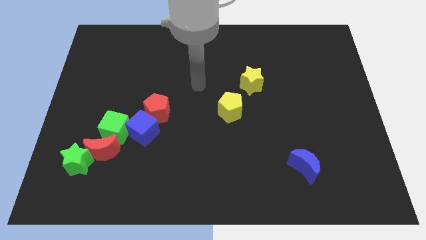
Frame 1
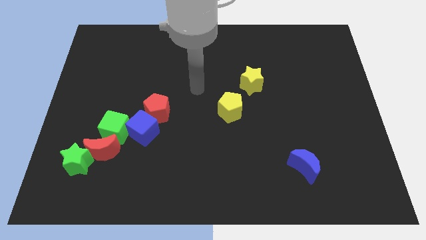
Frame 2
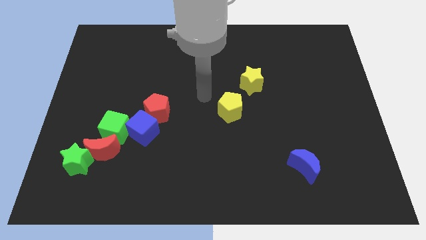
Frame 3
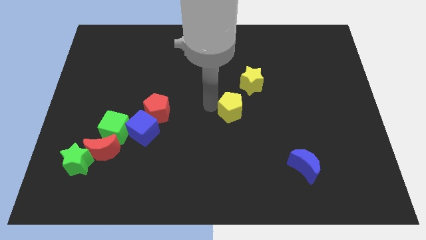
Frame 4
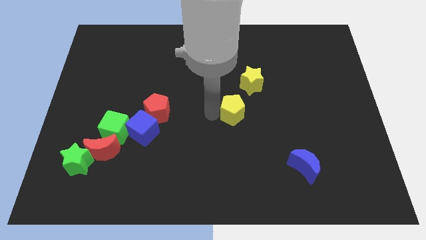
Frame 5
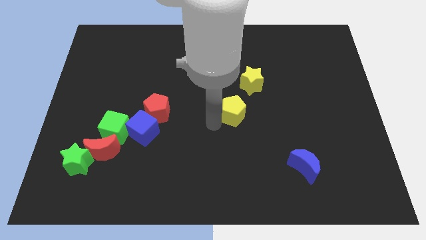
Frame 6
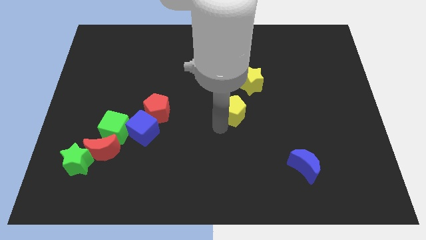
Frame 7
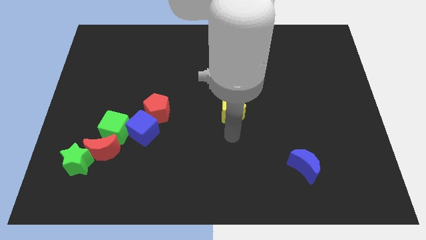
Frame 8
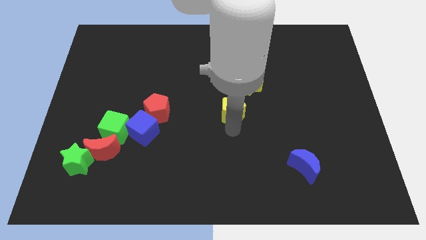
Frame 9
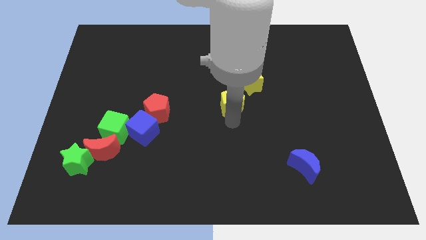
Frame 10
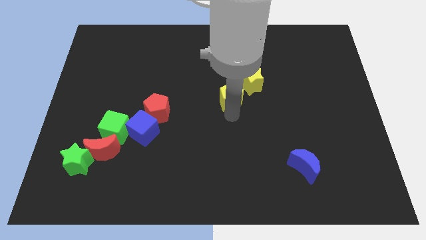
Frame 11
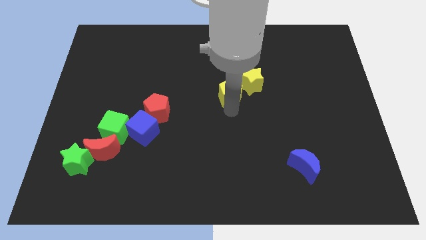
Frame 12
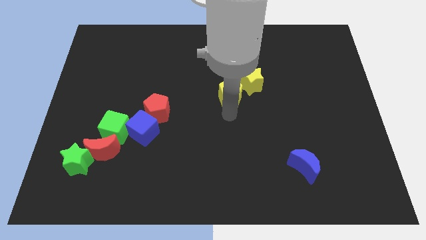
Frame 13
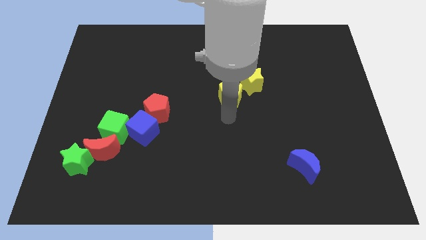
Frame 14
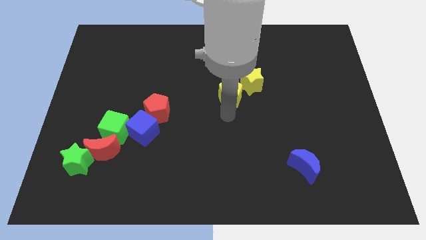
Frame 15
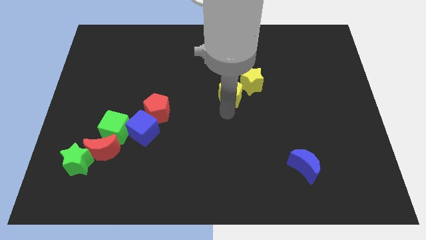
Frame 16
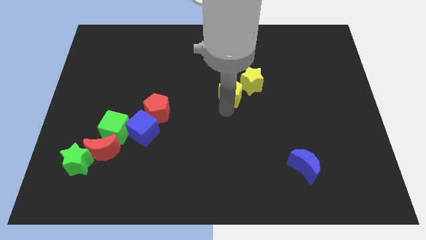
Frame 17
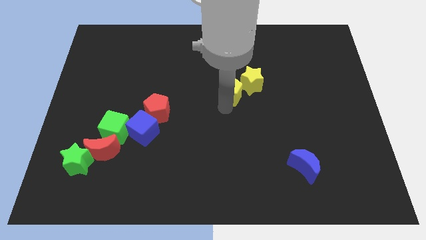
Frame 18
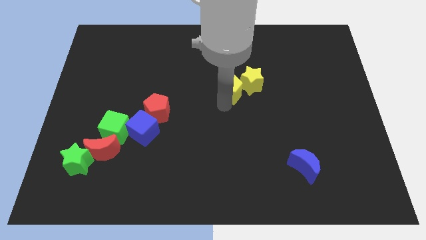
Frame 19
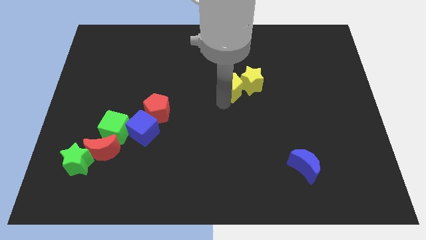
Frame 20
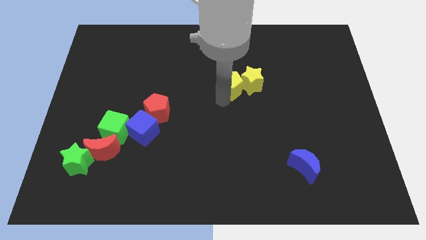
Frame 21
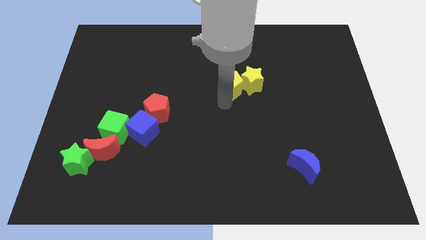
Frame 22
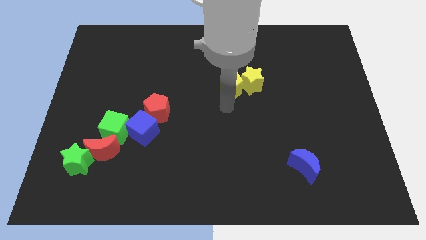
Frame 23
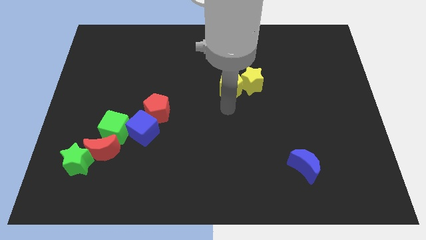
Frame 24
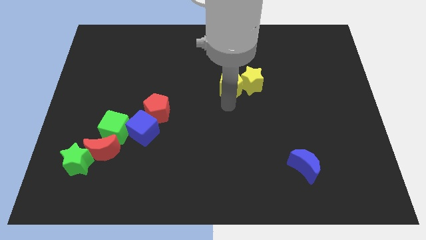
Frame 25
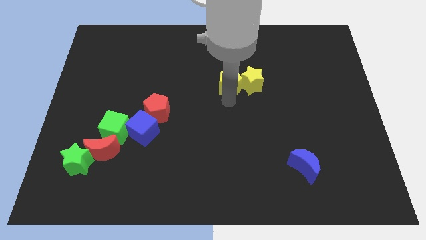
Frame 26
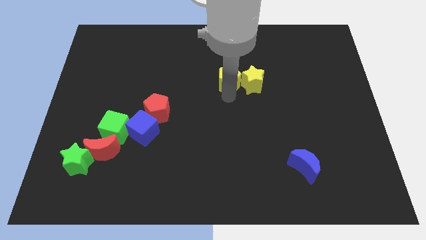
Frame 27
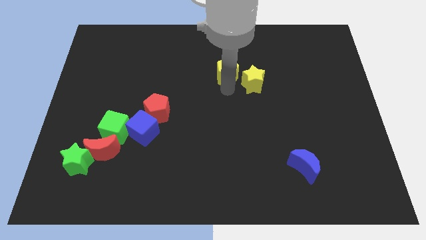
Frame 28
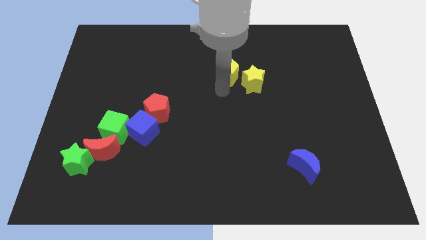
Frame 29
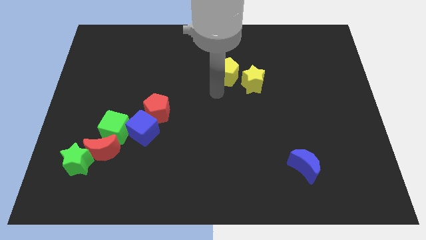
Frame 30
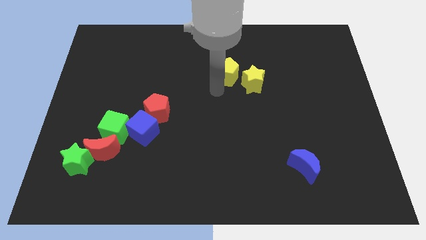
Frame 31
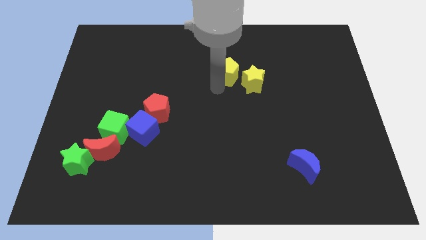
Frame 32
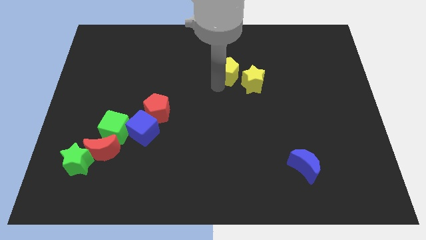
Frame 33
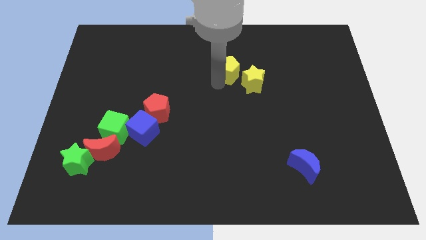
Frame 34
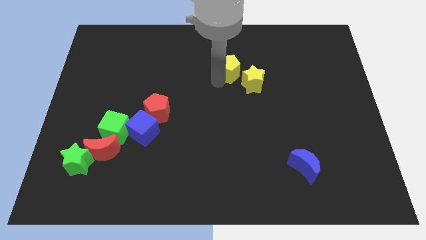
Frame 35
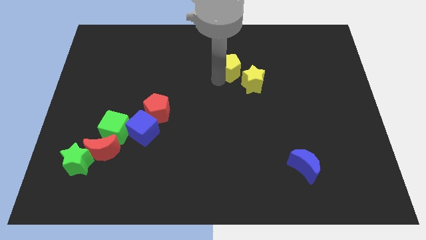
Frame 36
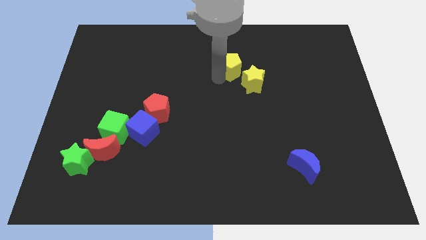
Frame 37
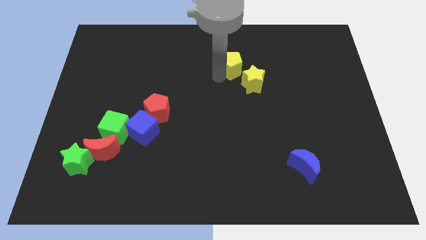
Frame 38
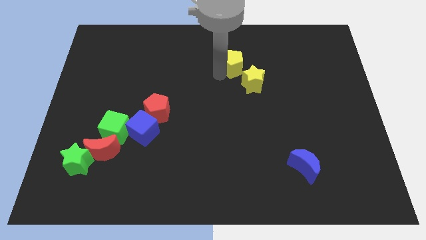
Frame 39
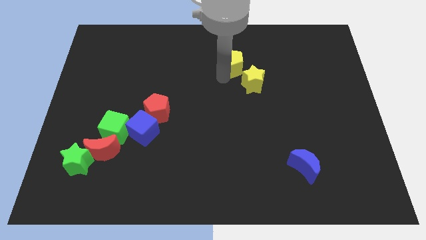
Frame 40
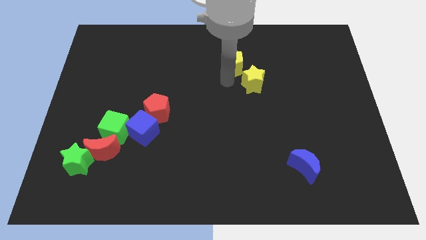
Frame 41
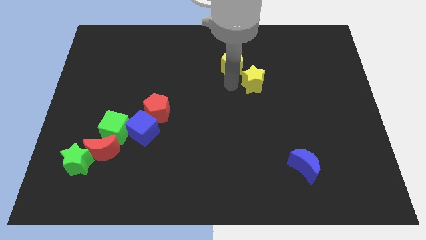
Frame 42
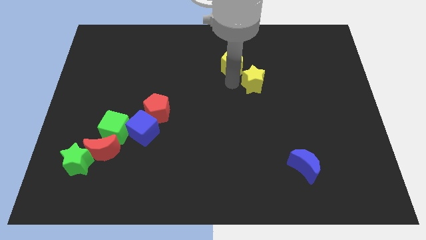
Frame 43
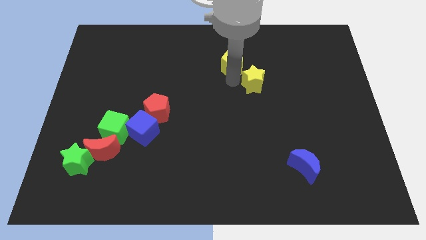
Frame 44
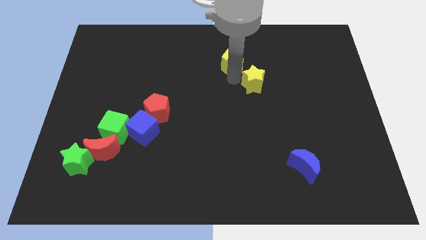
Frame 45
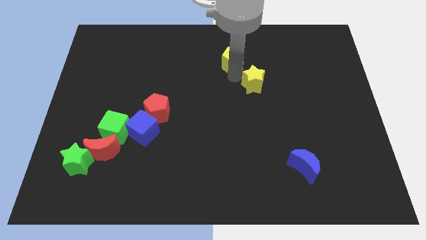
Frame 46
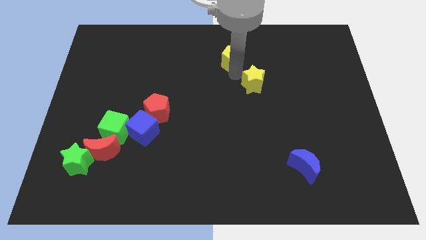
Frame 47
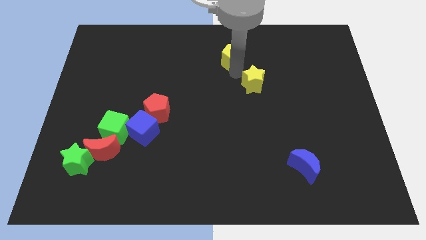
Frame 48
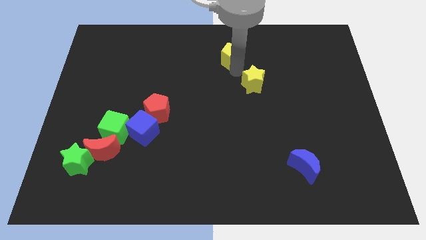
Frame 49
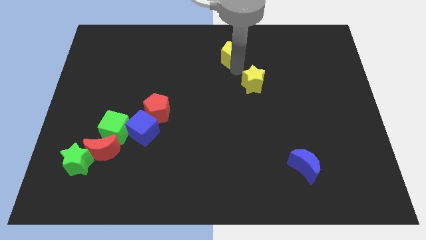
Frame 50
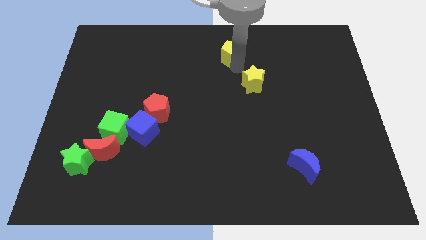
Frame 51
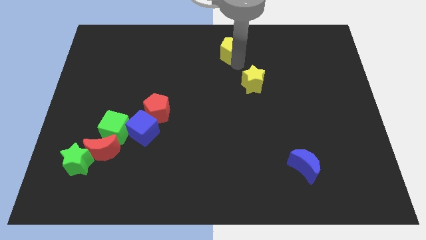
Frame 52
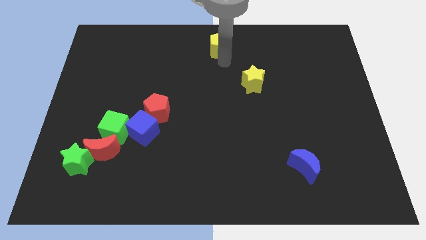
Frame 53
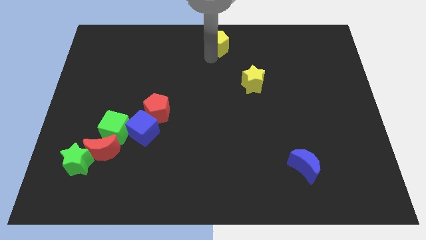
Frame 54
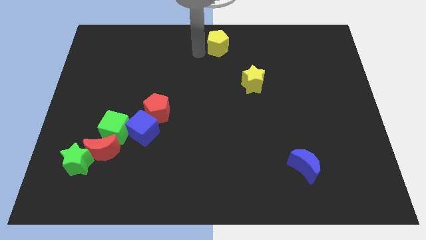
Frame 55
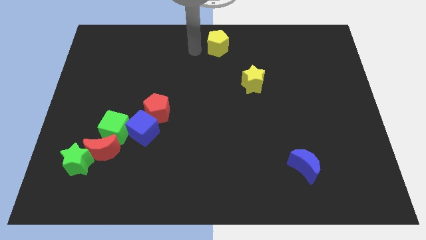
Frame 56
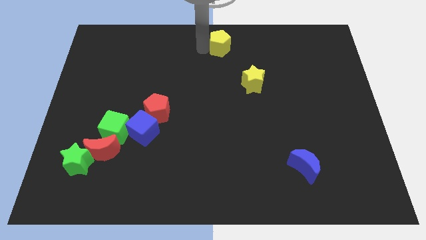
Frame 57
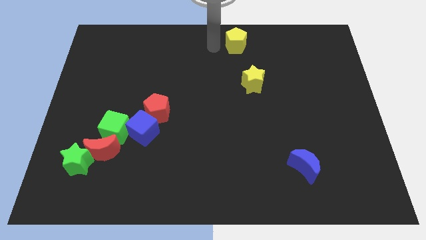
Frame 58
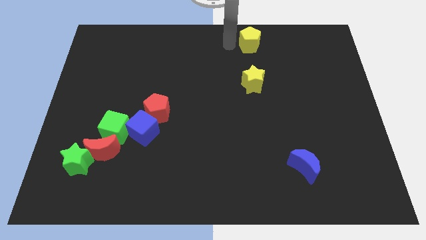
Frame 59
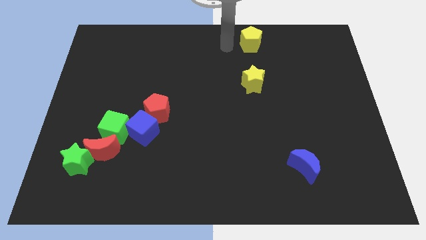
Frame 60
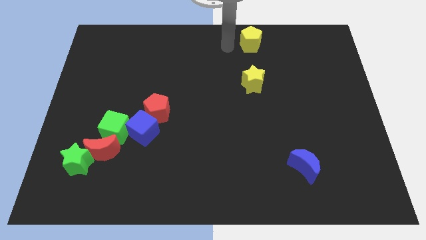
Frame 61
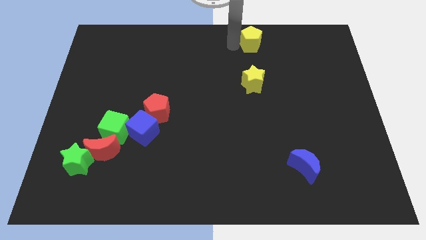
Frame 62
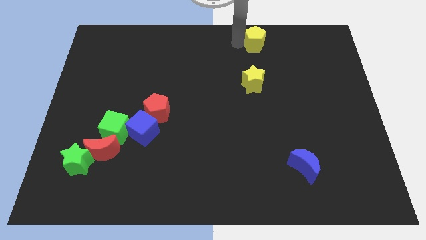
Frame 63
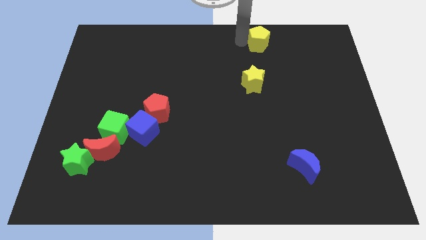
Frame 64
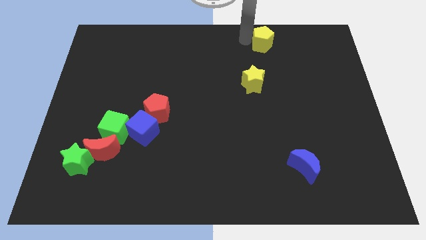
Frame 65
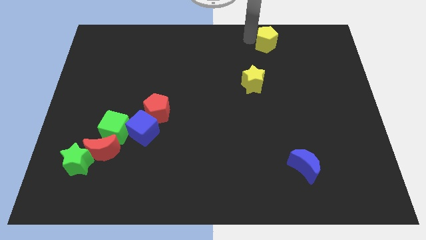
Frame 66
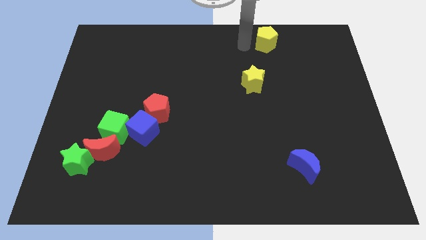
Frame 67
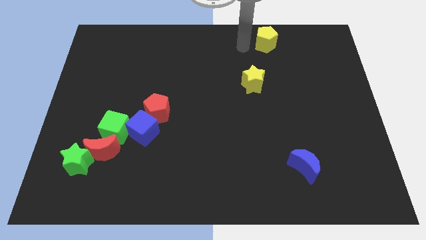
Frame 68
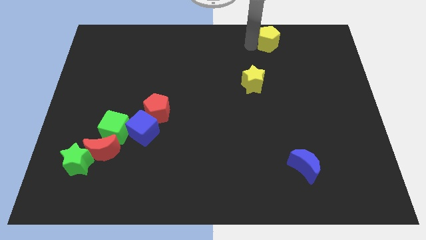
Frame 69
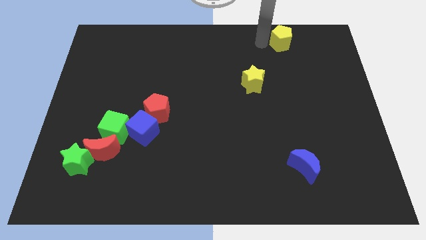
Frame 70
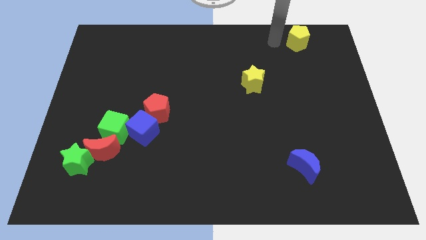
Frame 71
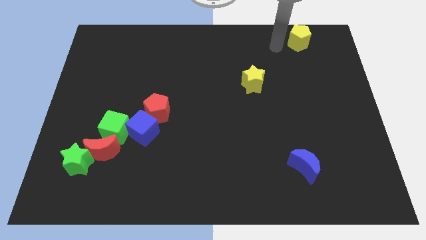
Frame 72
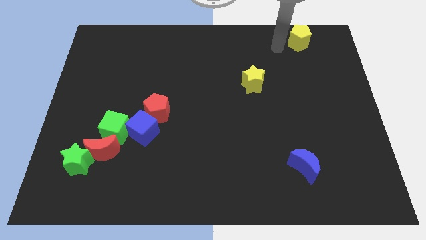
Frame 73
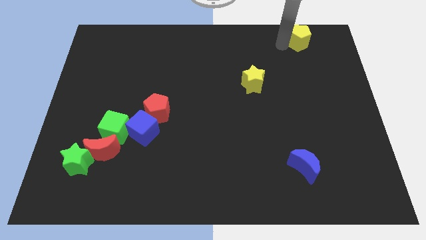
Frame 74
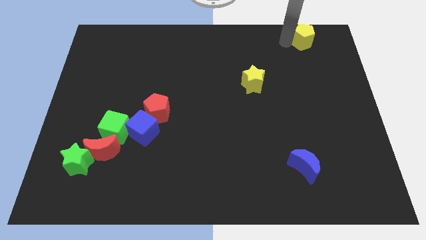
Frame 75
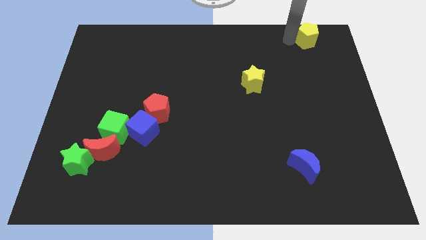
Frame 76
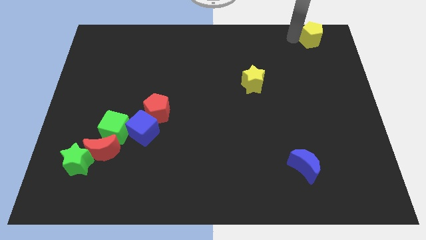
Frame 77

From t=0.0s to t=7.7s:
move the yellow pentagon to the top right of the board
